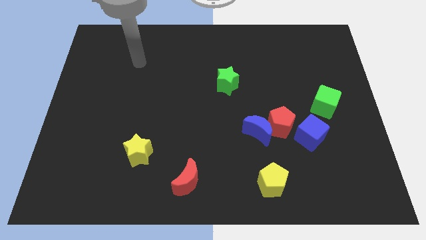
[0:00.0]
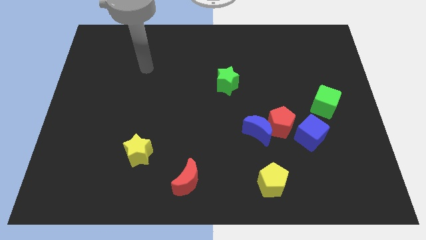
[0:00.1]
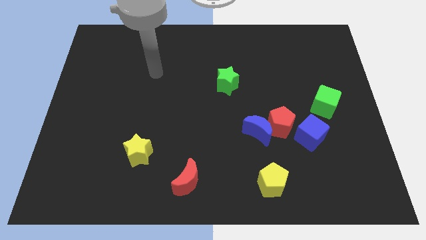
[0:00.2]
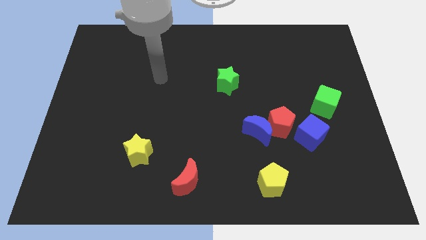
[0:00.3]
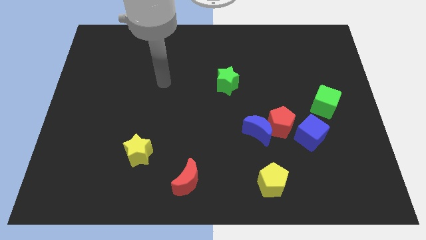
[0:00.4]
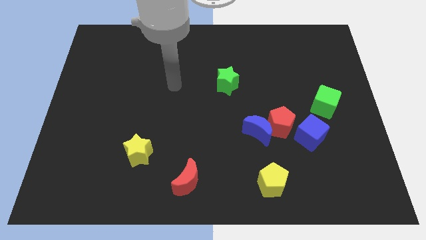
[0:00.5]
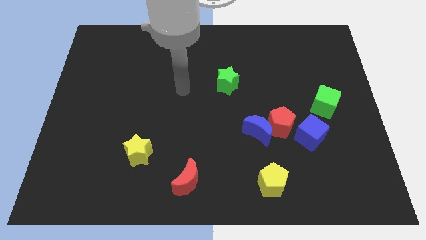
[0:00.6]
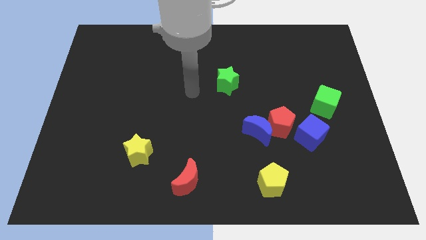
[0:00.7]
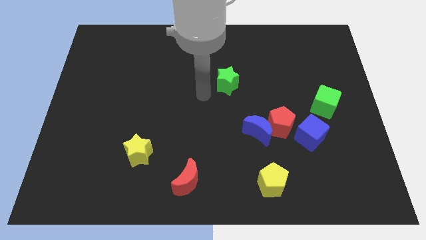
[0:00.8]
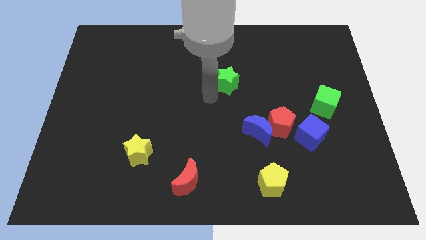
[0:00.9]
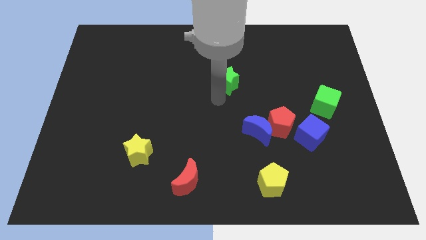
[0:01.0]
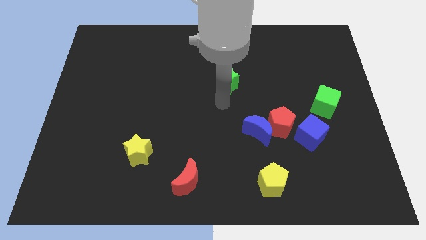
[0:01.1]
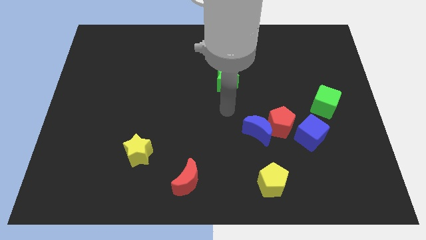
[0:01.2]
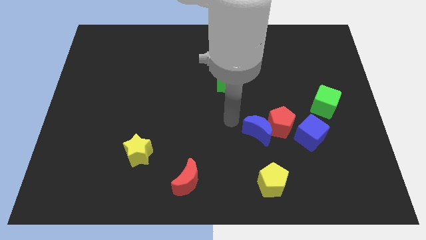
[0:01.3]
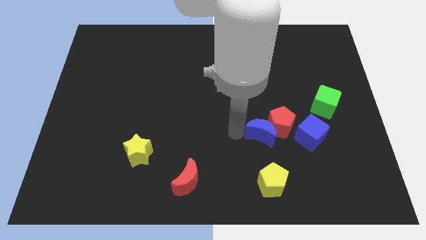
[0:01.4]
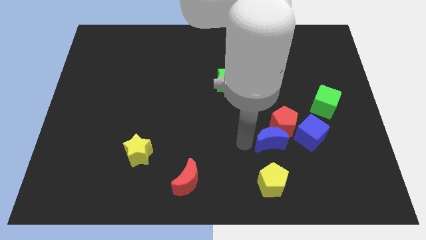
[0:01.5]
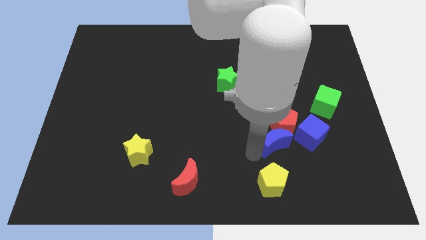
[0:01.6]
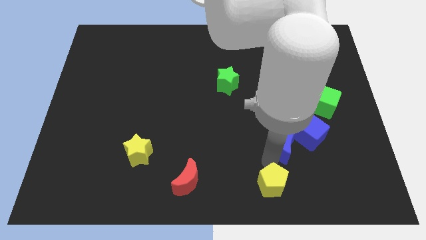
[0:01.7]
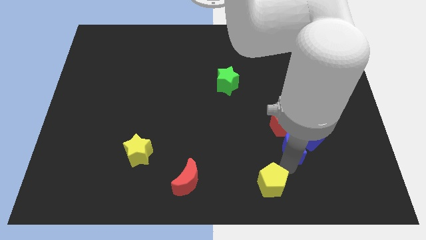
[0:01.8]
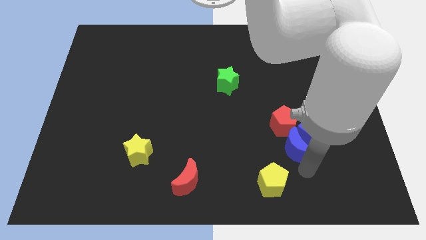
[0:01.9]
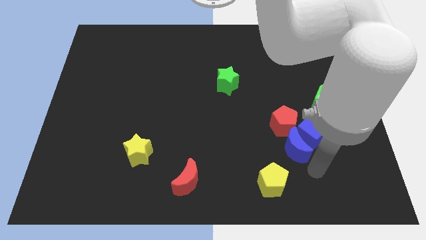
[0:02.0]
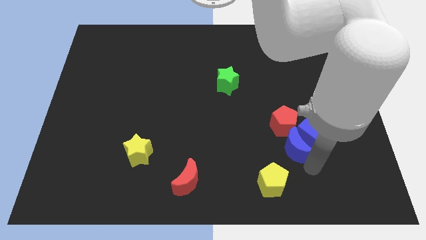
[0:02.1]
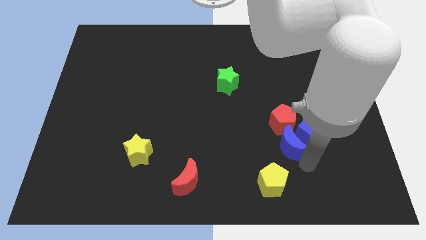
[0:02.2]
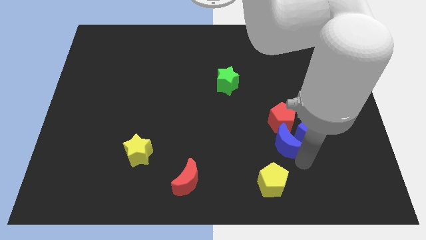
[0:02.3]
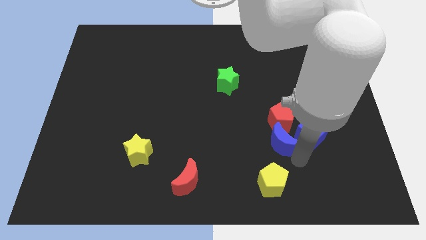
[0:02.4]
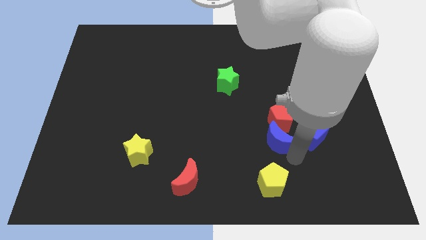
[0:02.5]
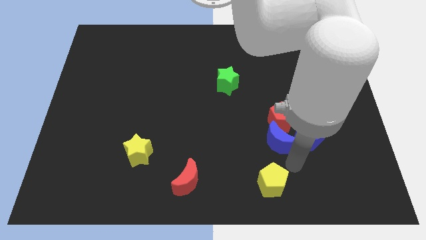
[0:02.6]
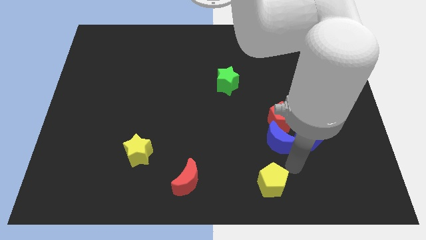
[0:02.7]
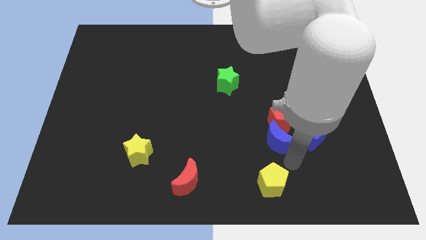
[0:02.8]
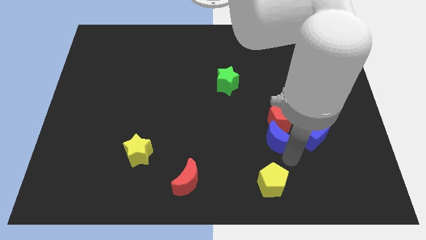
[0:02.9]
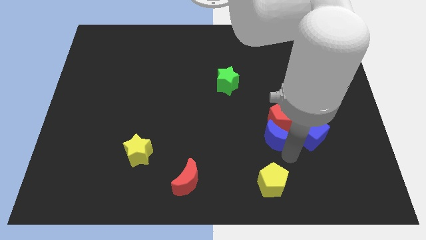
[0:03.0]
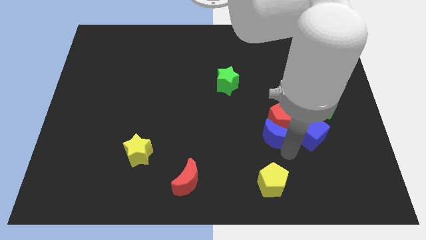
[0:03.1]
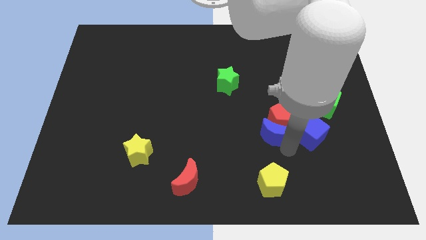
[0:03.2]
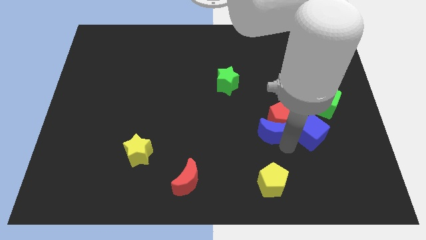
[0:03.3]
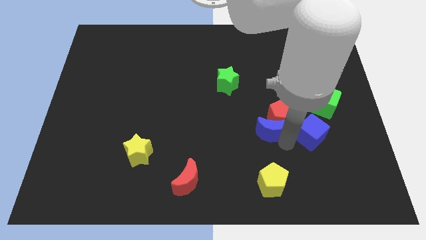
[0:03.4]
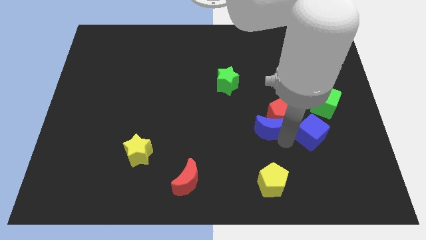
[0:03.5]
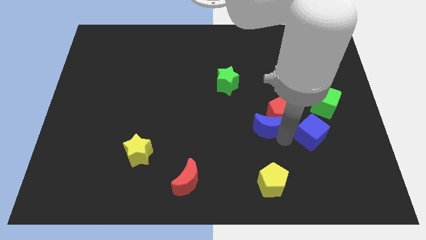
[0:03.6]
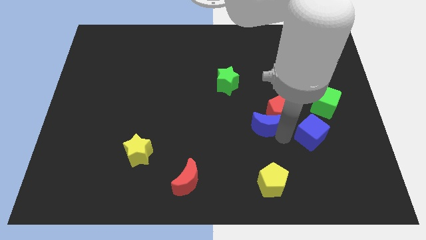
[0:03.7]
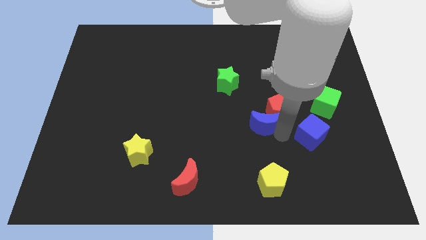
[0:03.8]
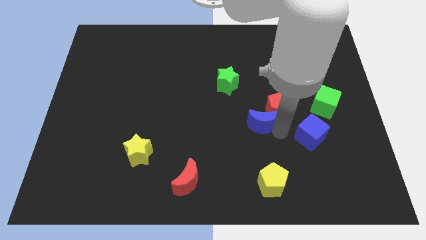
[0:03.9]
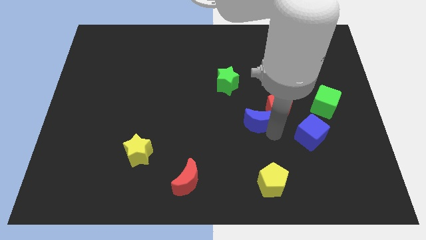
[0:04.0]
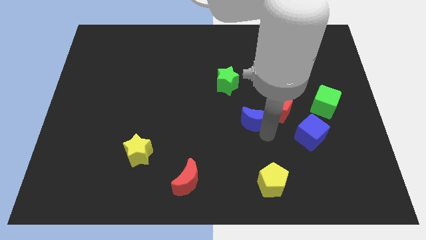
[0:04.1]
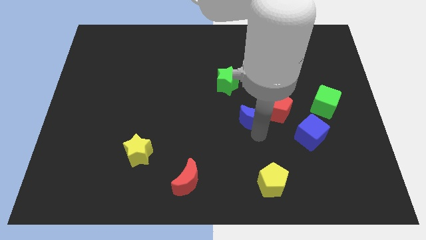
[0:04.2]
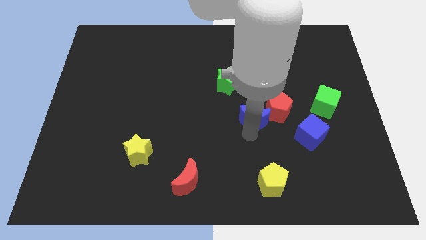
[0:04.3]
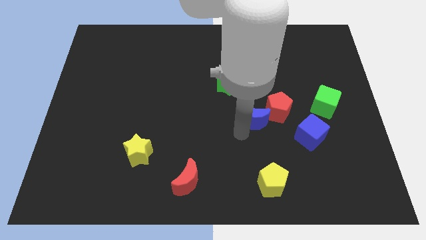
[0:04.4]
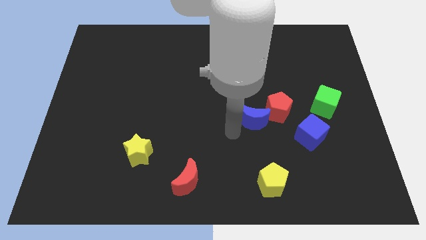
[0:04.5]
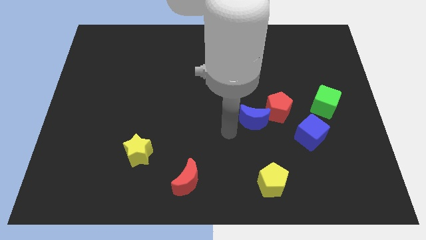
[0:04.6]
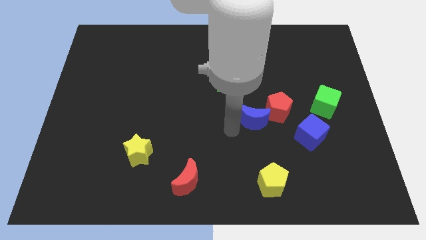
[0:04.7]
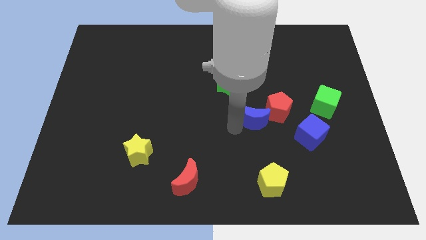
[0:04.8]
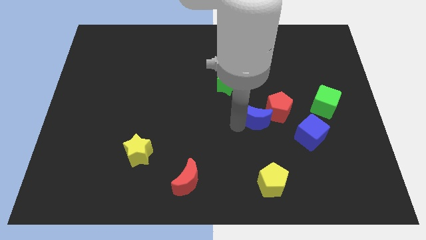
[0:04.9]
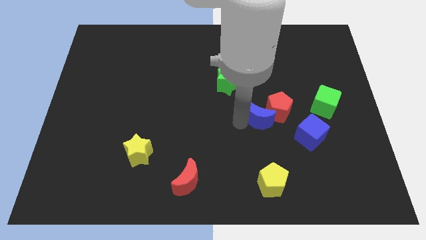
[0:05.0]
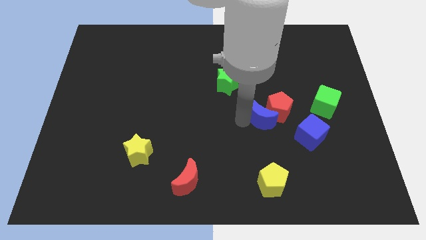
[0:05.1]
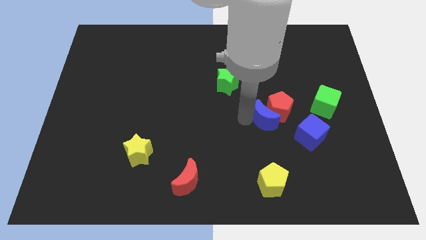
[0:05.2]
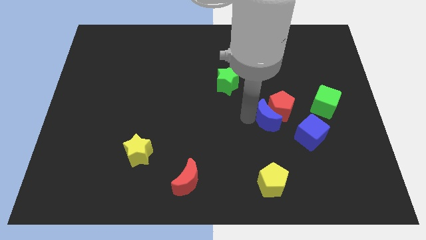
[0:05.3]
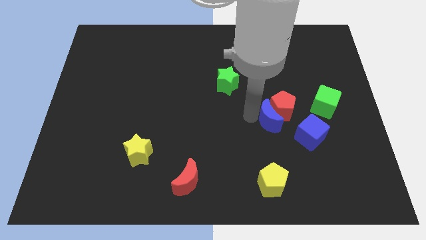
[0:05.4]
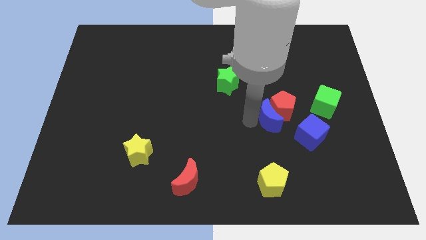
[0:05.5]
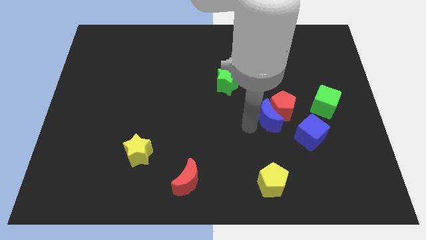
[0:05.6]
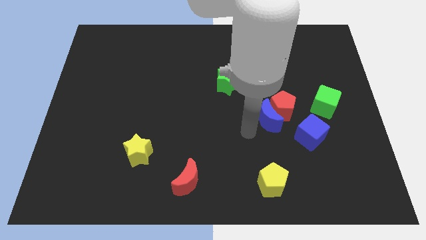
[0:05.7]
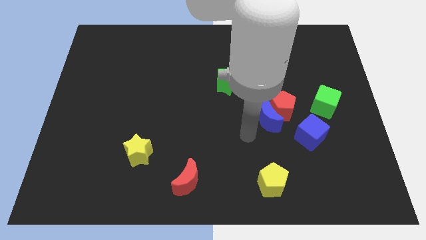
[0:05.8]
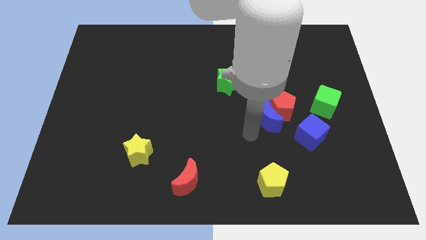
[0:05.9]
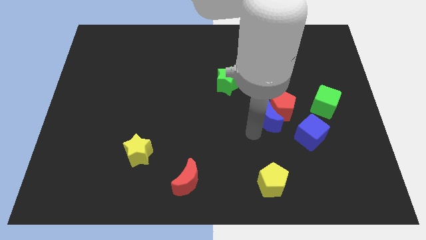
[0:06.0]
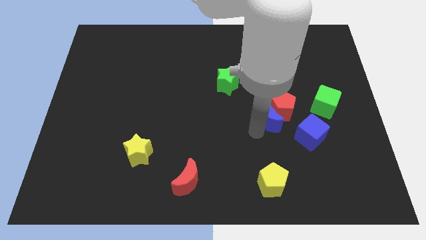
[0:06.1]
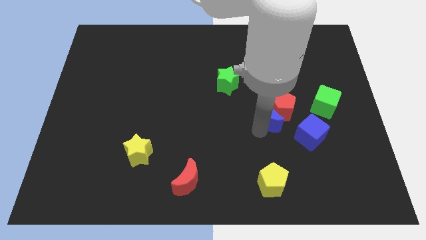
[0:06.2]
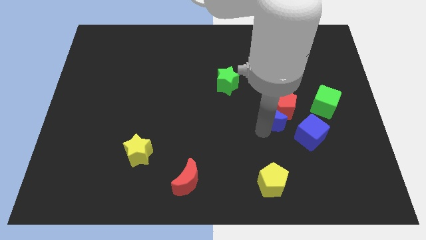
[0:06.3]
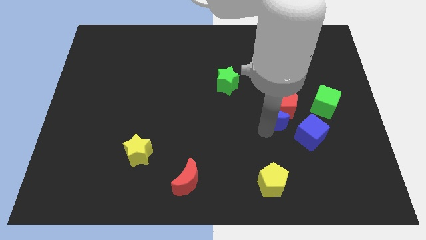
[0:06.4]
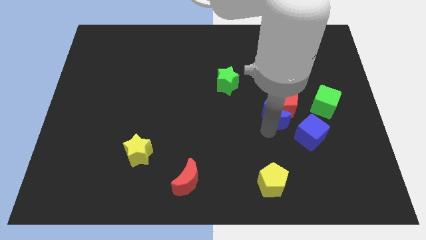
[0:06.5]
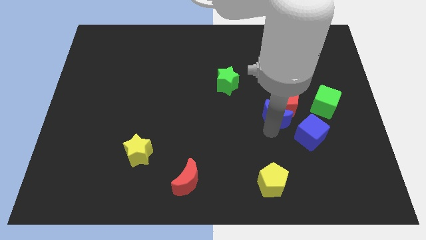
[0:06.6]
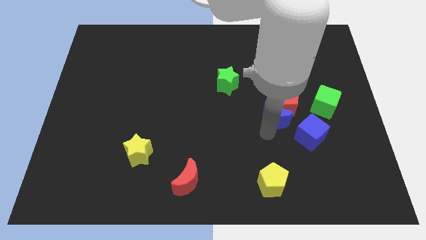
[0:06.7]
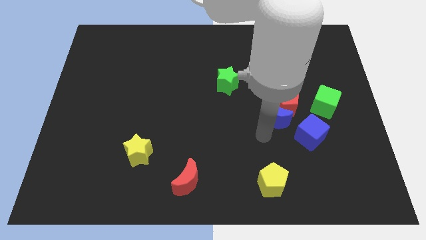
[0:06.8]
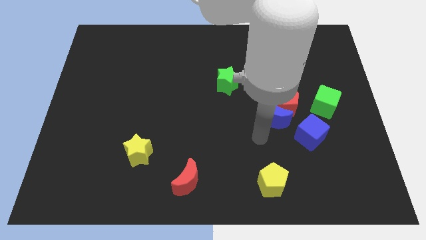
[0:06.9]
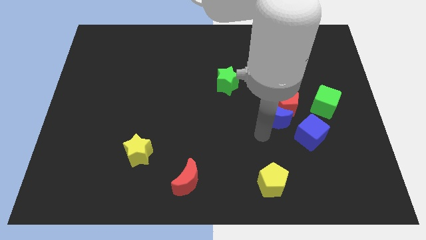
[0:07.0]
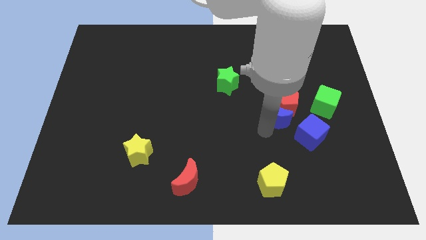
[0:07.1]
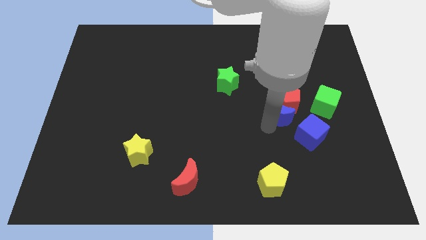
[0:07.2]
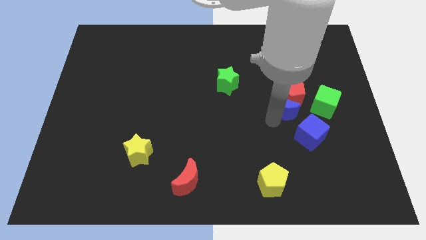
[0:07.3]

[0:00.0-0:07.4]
move the blue moon somewhat diagonally upwards and right

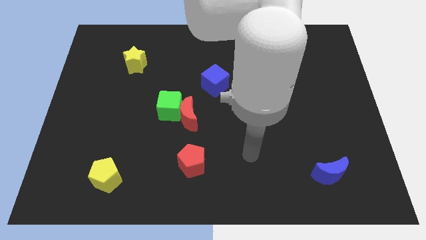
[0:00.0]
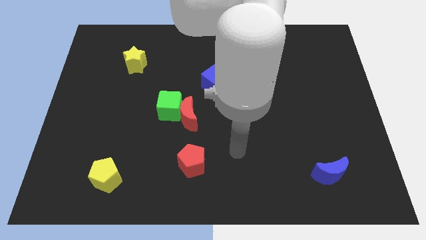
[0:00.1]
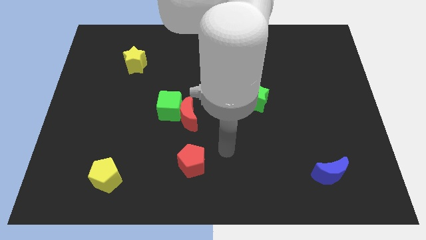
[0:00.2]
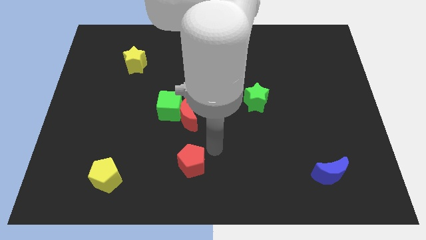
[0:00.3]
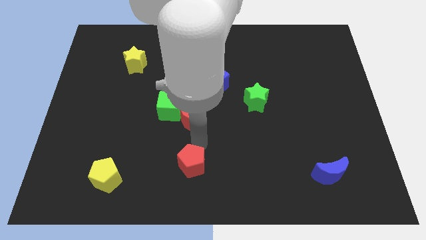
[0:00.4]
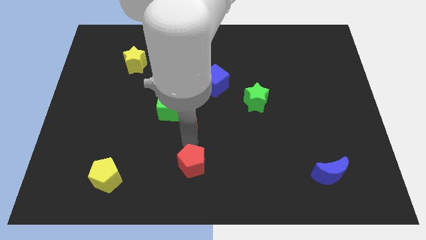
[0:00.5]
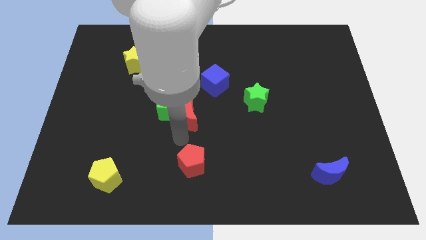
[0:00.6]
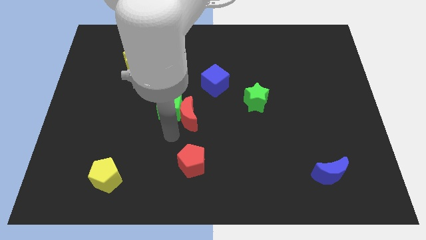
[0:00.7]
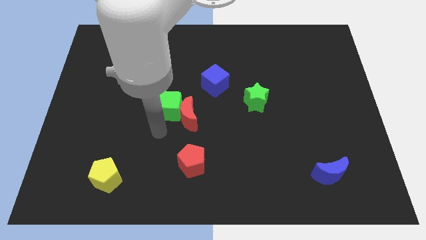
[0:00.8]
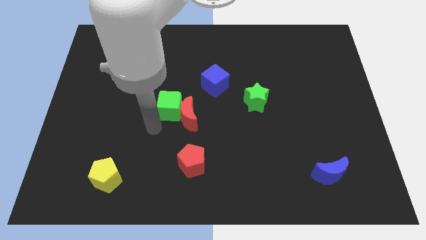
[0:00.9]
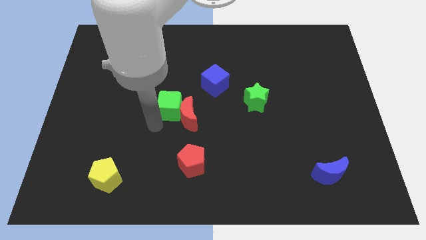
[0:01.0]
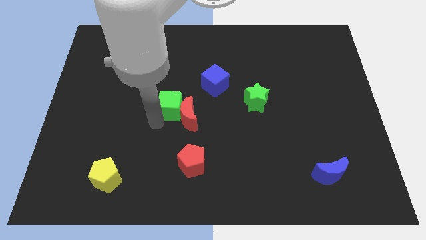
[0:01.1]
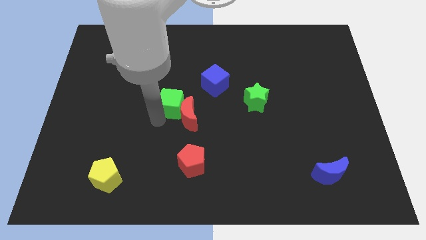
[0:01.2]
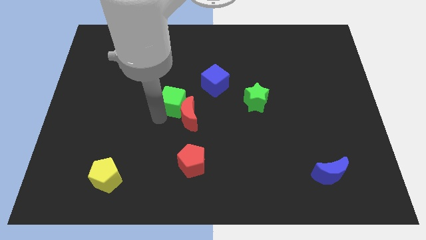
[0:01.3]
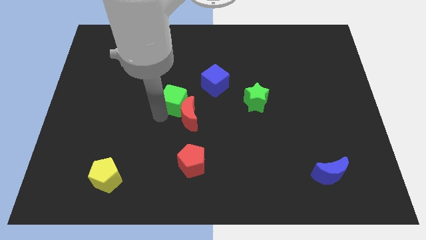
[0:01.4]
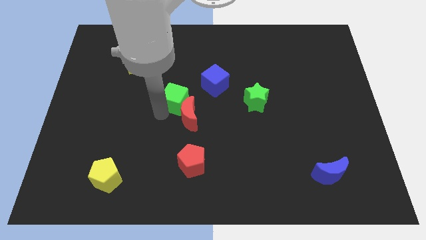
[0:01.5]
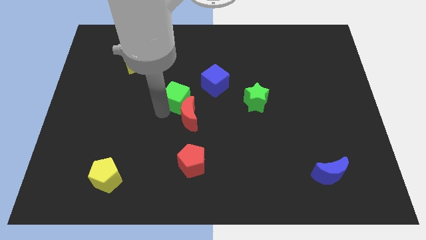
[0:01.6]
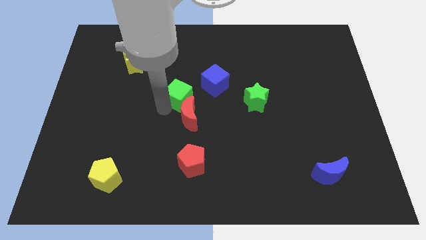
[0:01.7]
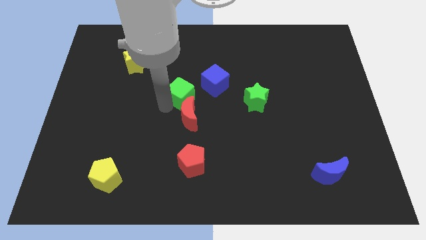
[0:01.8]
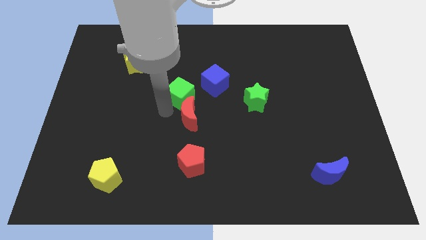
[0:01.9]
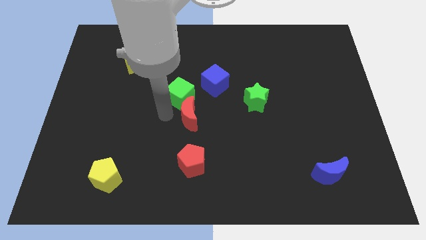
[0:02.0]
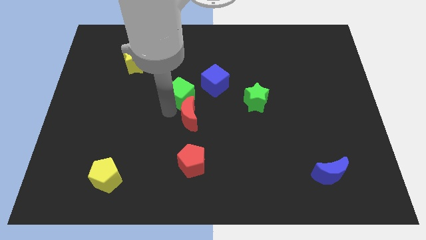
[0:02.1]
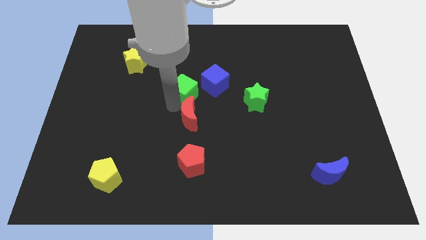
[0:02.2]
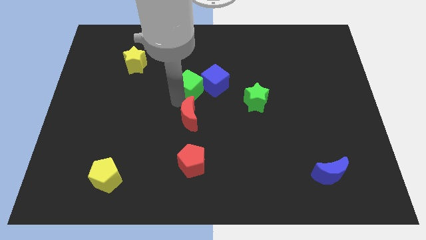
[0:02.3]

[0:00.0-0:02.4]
slightly push the green cube up and right
